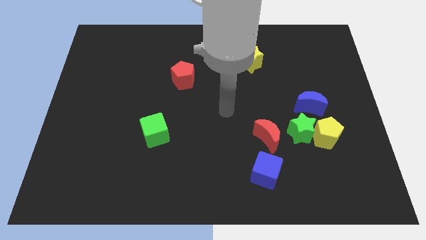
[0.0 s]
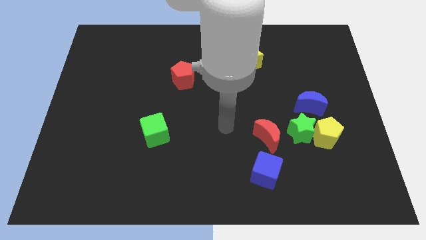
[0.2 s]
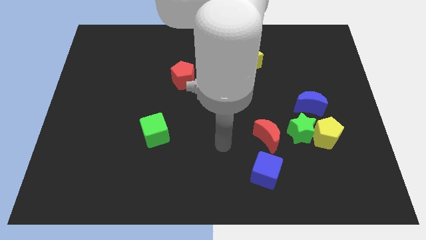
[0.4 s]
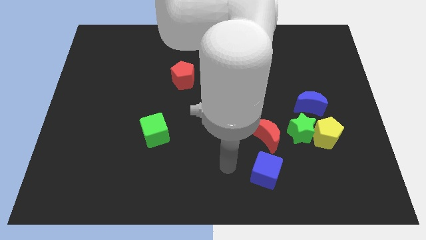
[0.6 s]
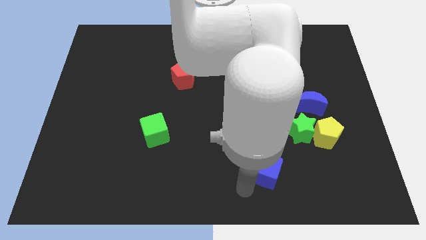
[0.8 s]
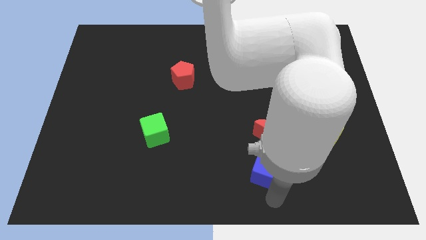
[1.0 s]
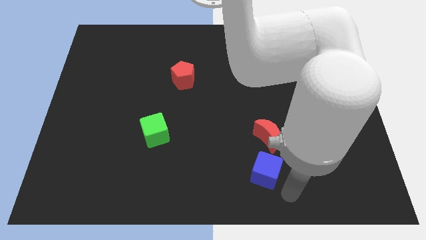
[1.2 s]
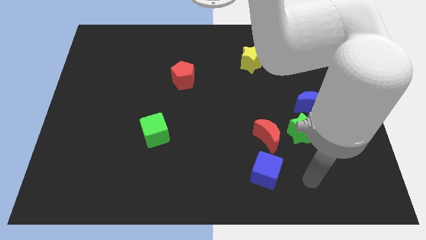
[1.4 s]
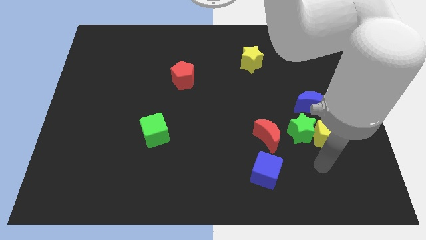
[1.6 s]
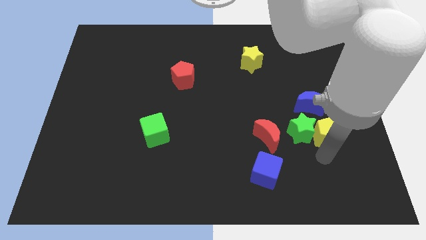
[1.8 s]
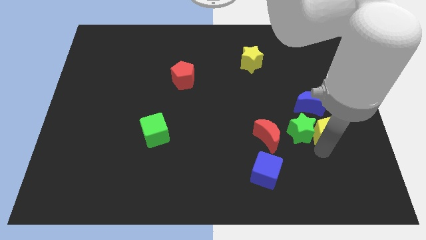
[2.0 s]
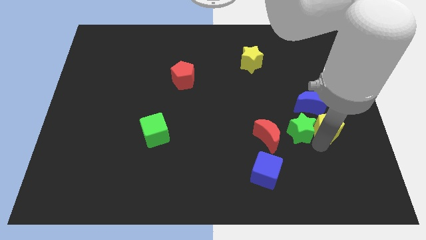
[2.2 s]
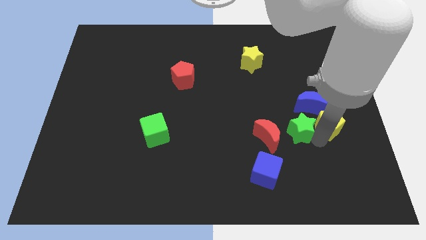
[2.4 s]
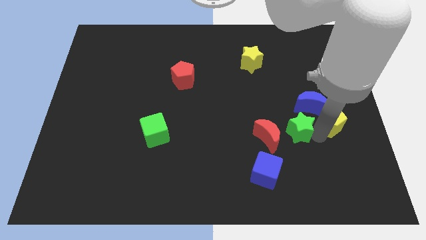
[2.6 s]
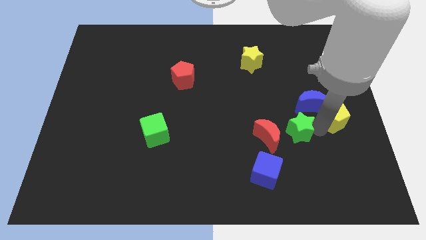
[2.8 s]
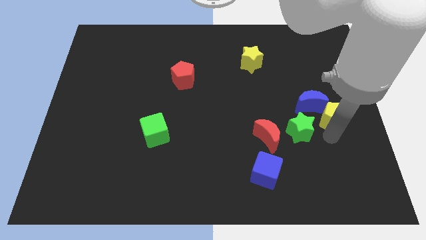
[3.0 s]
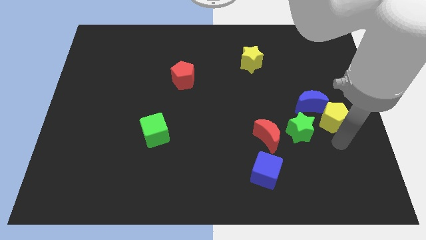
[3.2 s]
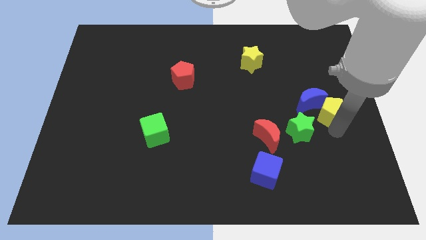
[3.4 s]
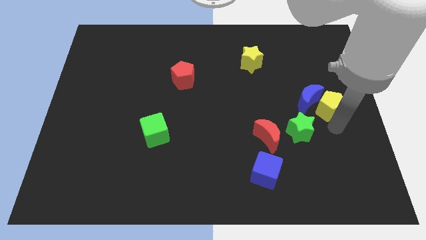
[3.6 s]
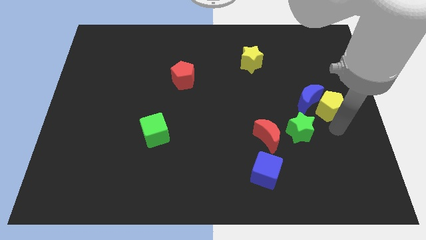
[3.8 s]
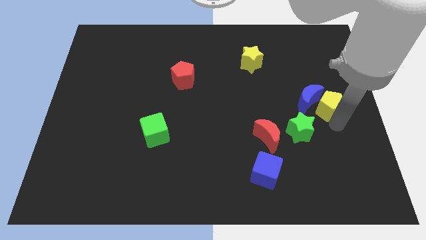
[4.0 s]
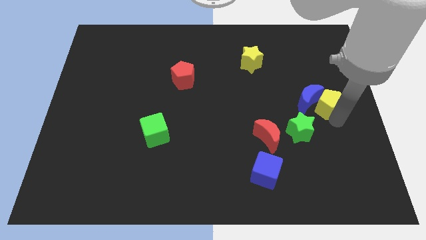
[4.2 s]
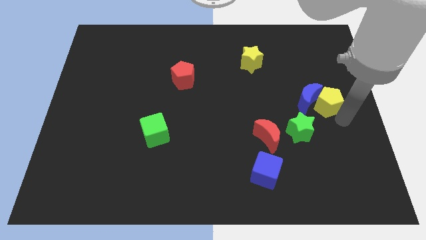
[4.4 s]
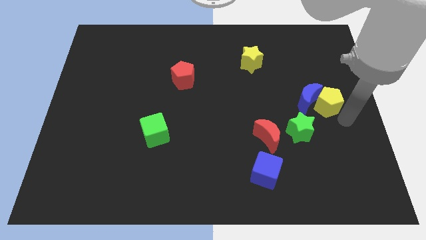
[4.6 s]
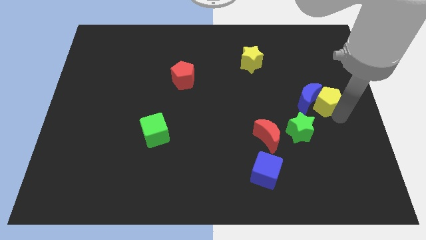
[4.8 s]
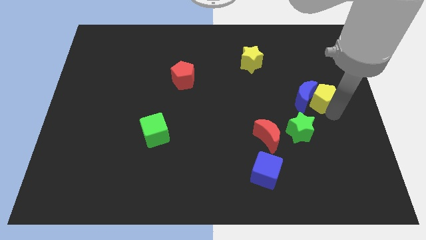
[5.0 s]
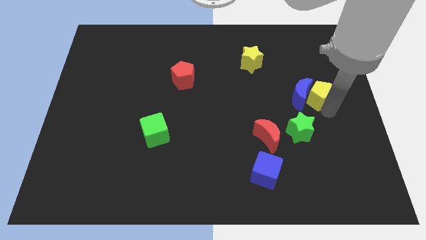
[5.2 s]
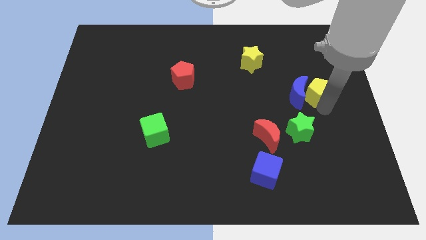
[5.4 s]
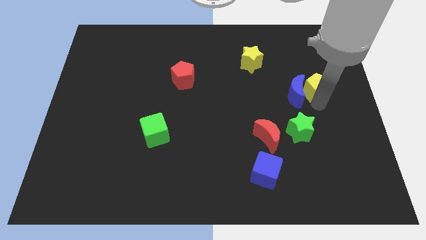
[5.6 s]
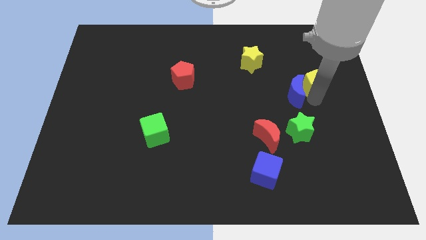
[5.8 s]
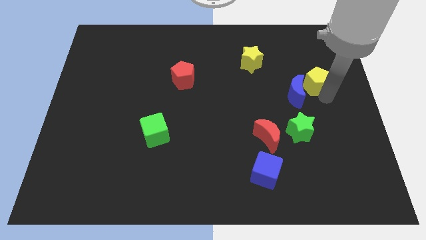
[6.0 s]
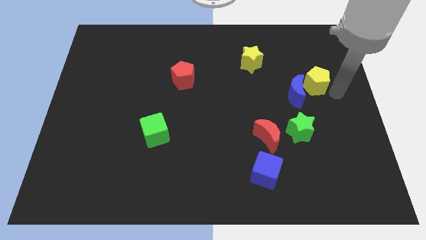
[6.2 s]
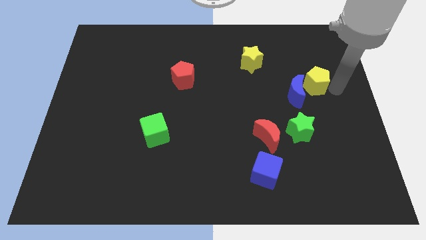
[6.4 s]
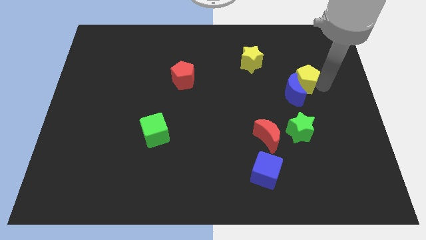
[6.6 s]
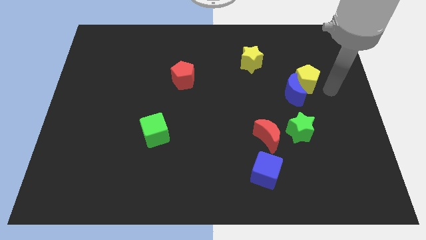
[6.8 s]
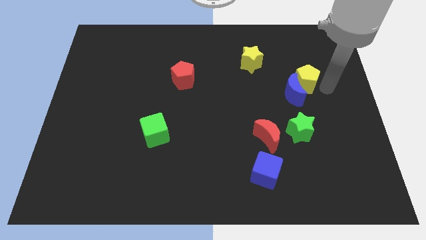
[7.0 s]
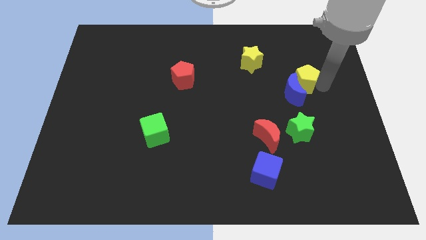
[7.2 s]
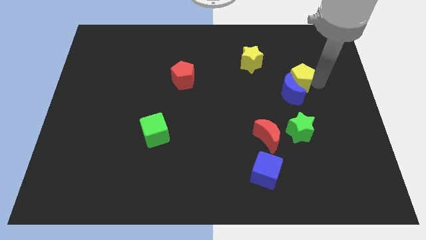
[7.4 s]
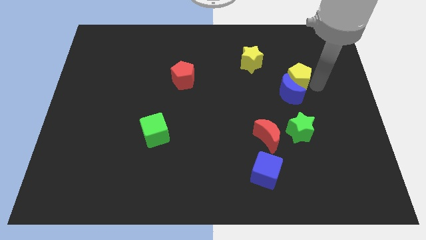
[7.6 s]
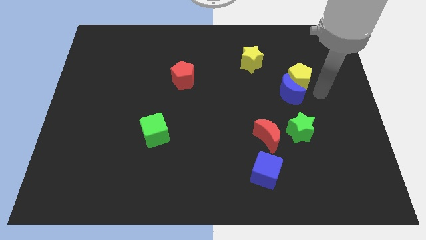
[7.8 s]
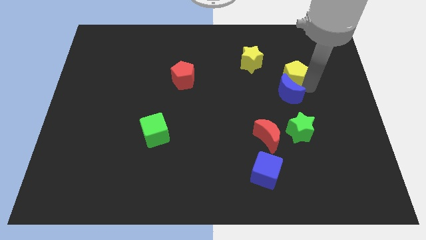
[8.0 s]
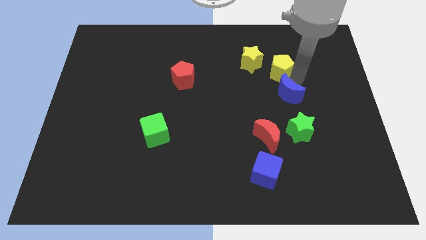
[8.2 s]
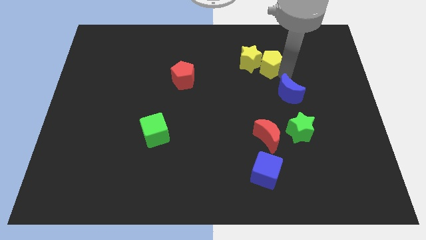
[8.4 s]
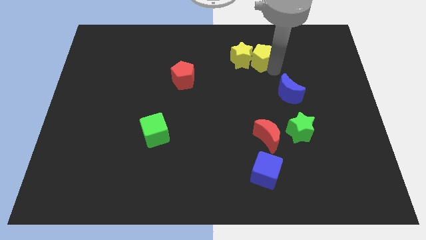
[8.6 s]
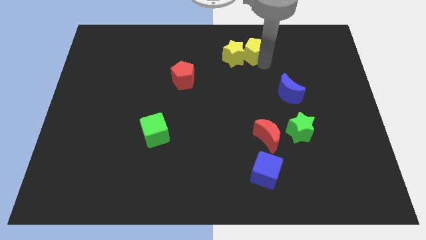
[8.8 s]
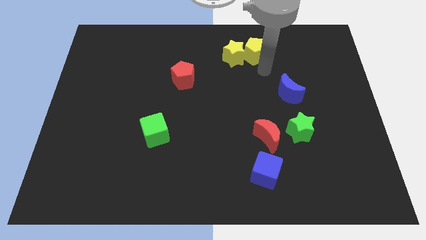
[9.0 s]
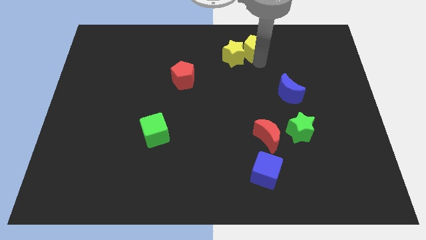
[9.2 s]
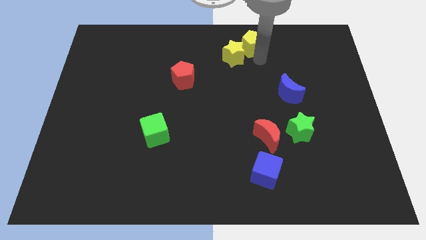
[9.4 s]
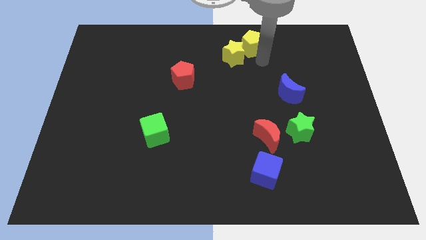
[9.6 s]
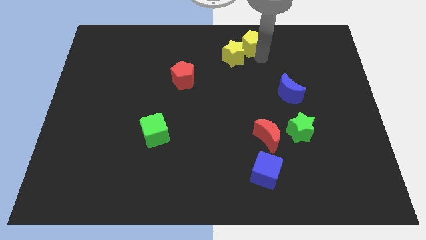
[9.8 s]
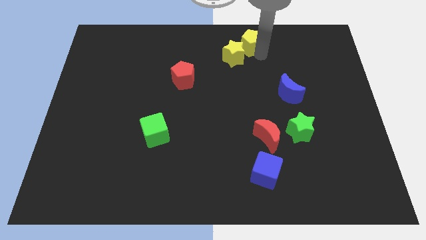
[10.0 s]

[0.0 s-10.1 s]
put the yellow pentagon to the towards your base
